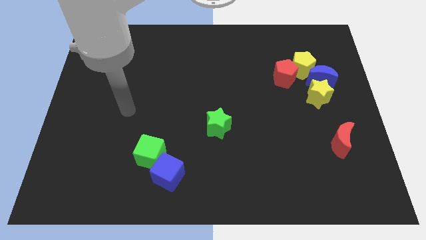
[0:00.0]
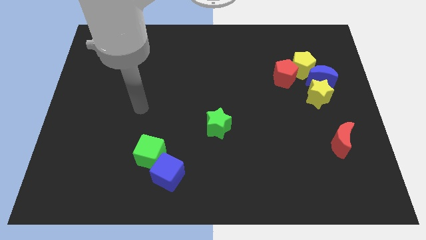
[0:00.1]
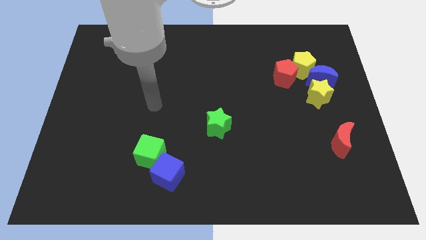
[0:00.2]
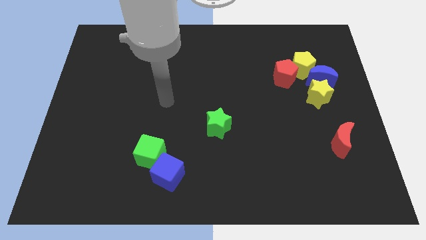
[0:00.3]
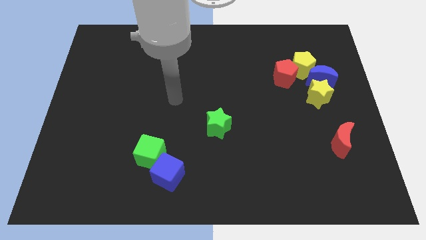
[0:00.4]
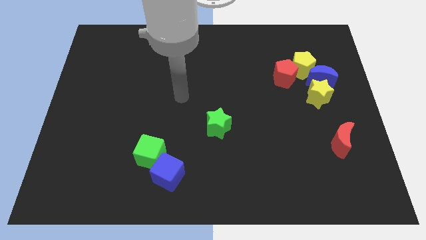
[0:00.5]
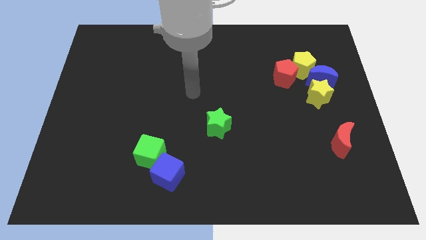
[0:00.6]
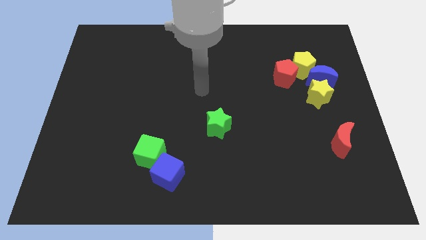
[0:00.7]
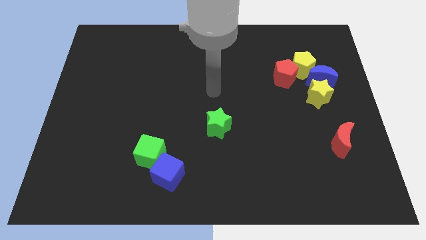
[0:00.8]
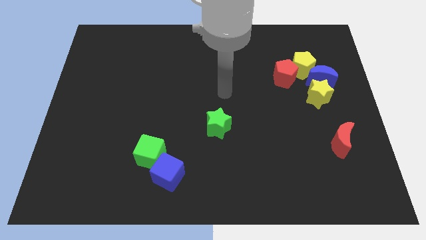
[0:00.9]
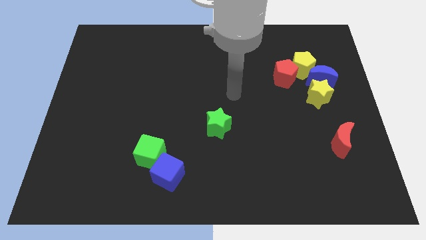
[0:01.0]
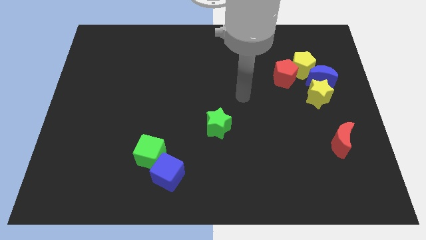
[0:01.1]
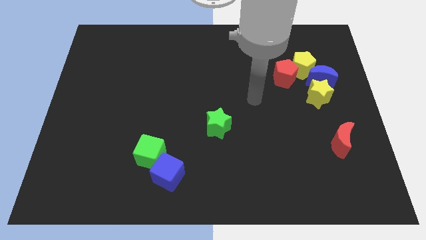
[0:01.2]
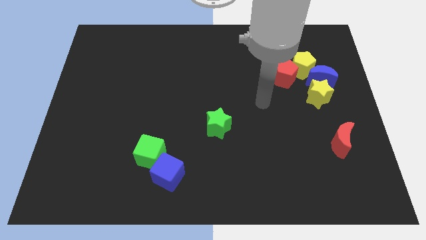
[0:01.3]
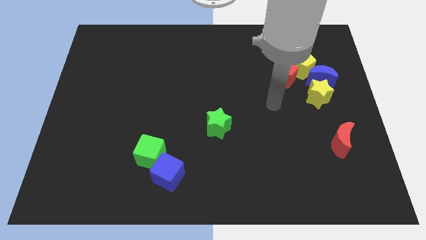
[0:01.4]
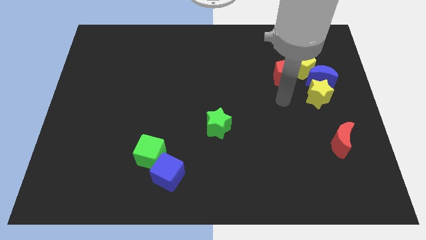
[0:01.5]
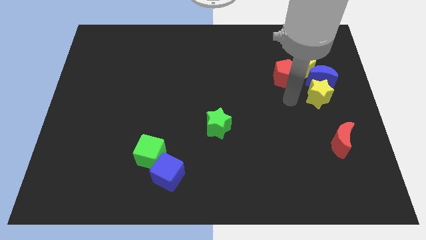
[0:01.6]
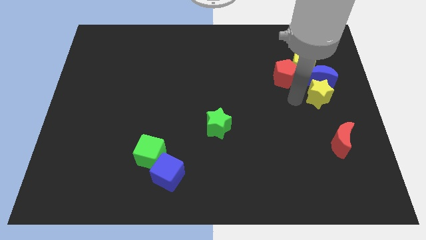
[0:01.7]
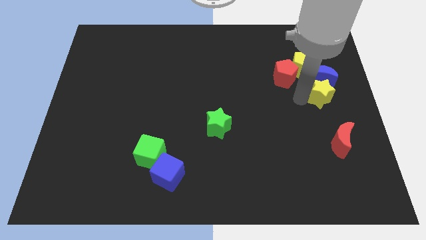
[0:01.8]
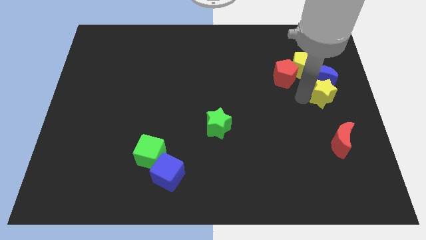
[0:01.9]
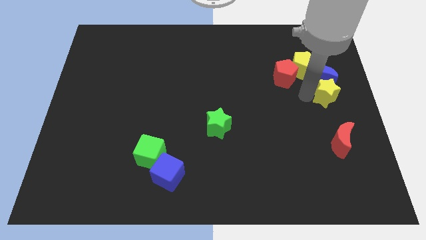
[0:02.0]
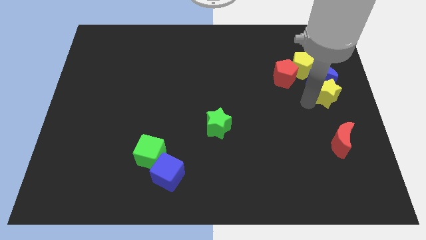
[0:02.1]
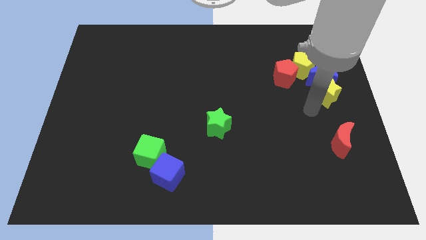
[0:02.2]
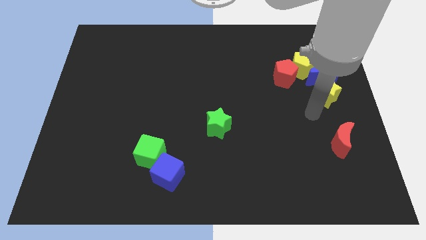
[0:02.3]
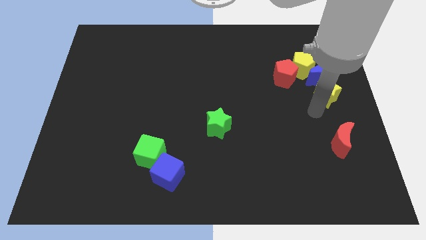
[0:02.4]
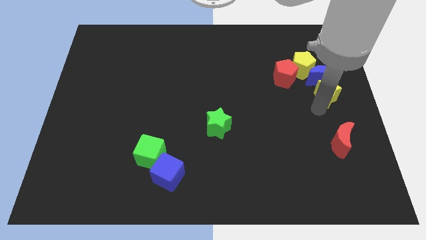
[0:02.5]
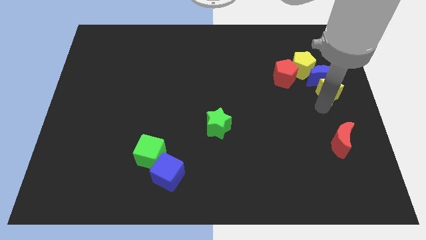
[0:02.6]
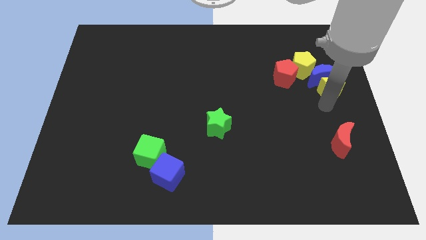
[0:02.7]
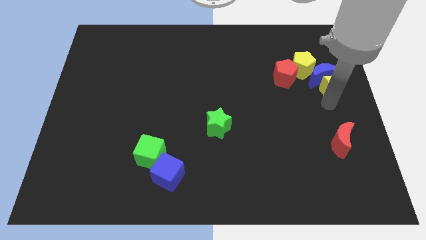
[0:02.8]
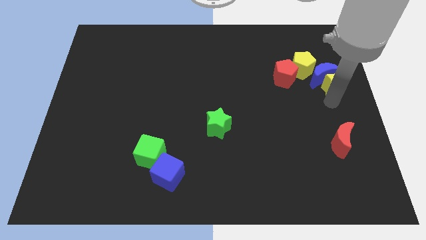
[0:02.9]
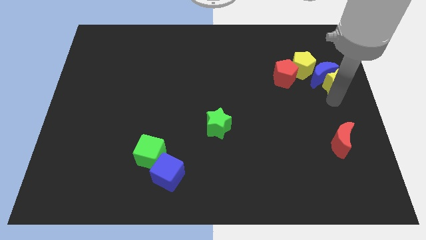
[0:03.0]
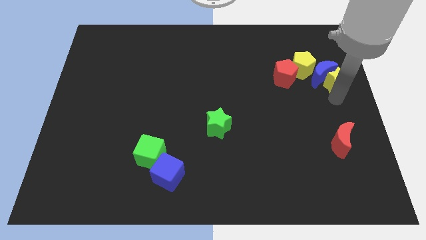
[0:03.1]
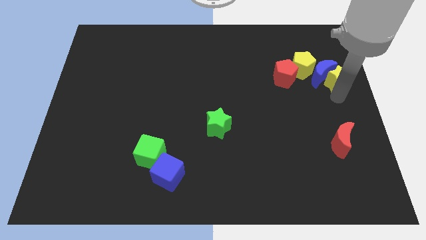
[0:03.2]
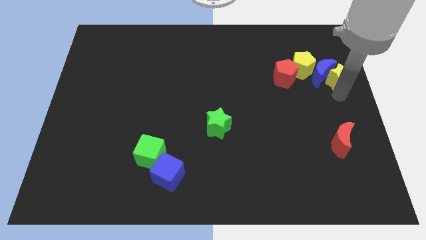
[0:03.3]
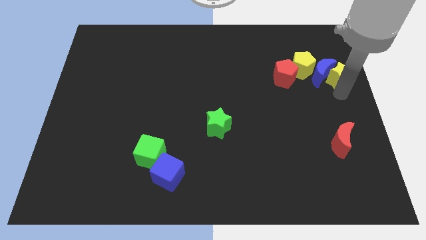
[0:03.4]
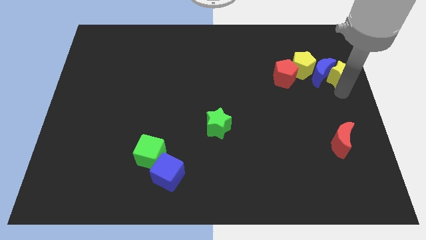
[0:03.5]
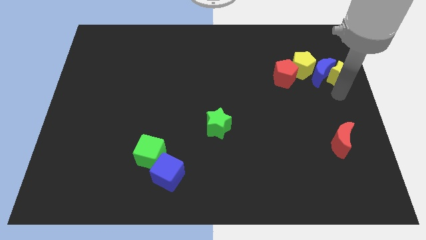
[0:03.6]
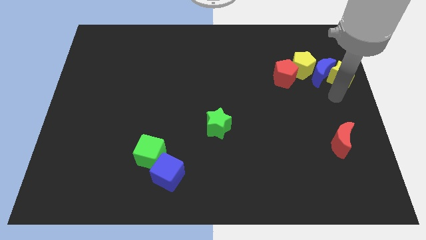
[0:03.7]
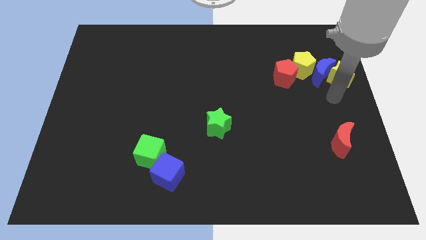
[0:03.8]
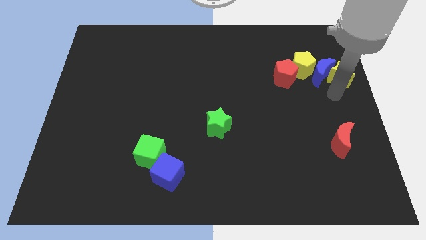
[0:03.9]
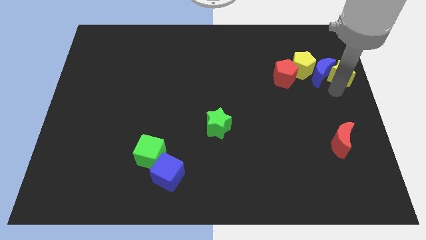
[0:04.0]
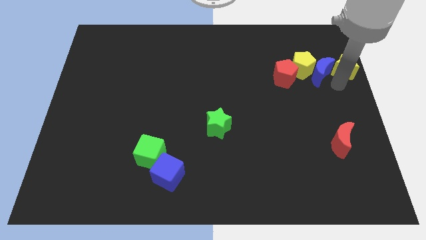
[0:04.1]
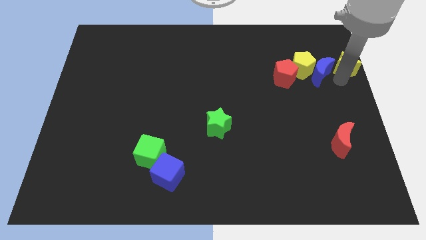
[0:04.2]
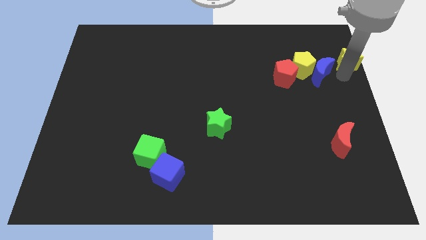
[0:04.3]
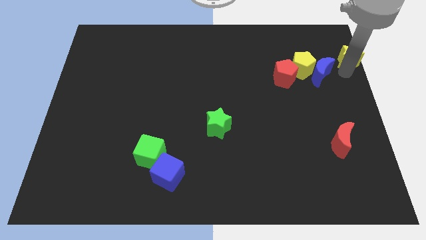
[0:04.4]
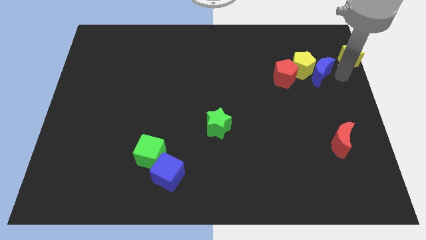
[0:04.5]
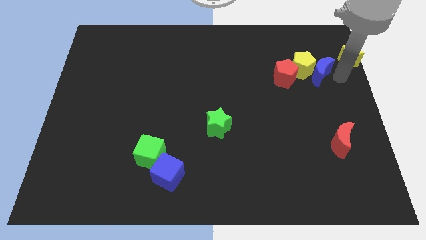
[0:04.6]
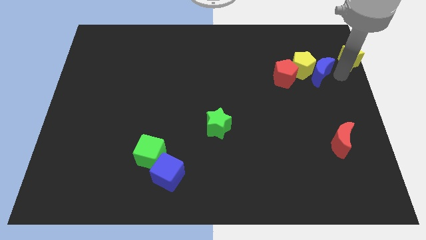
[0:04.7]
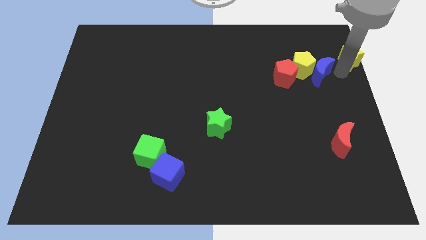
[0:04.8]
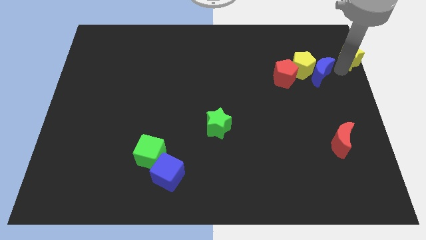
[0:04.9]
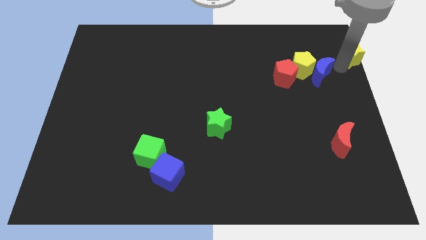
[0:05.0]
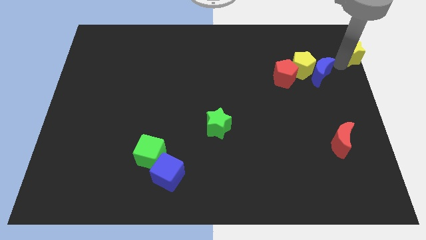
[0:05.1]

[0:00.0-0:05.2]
put the yellow star to the top right

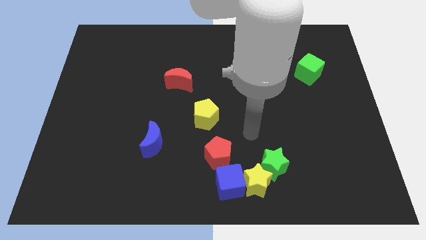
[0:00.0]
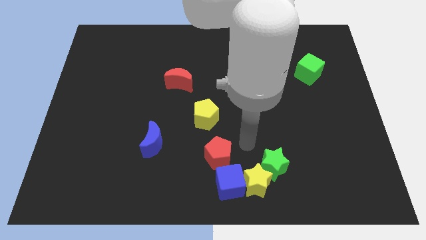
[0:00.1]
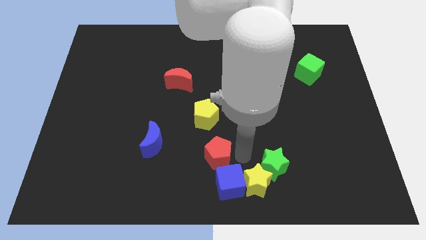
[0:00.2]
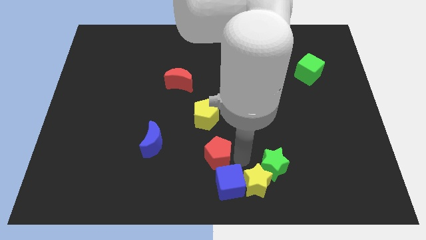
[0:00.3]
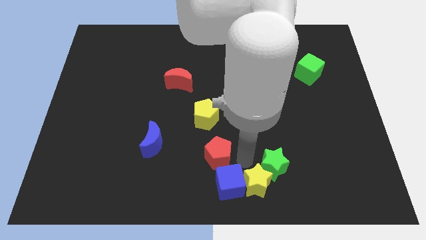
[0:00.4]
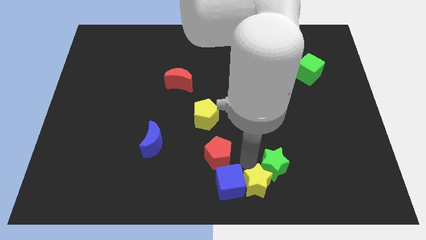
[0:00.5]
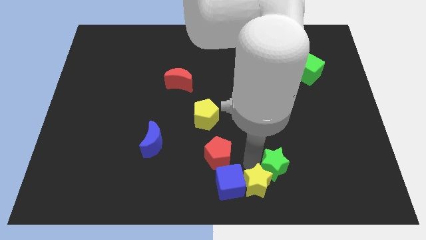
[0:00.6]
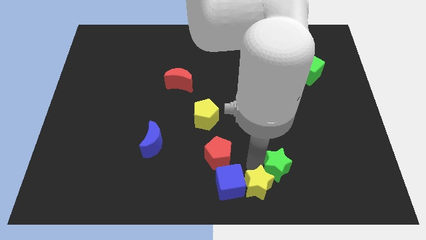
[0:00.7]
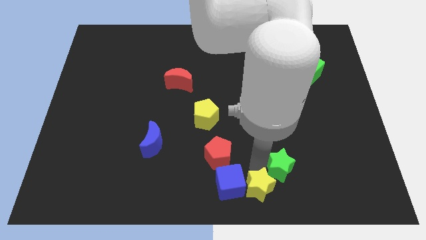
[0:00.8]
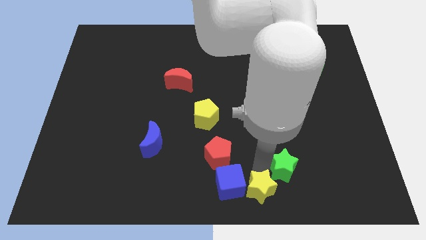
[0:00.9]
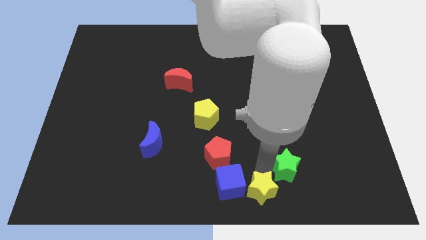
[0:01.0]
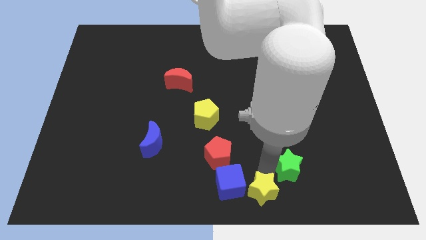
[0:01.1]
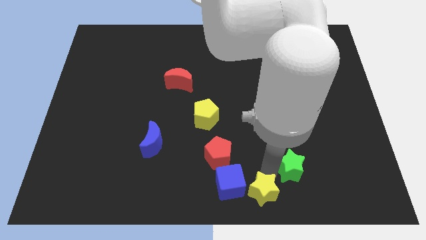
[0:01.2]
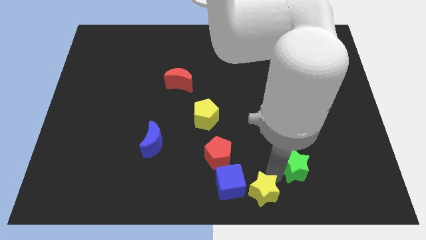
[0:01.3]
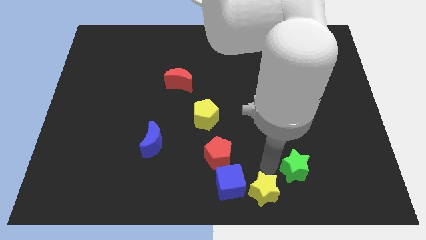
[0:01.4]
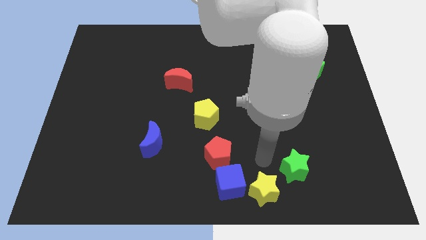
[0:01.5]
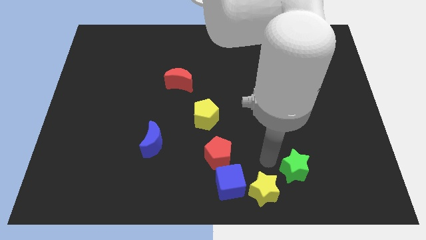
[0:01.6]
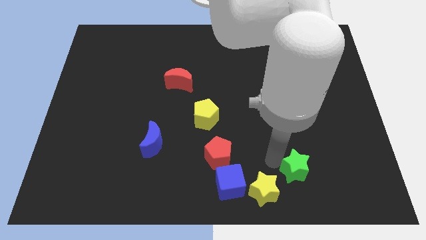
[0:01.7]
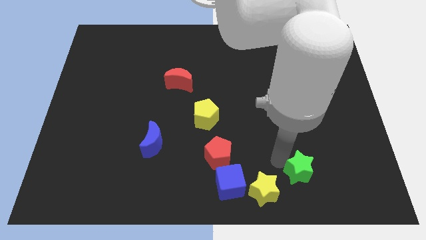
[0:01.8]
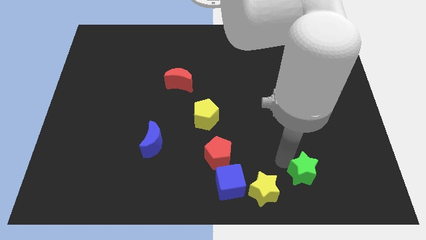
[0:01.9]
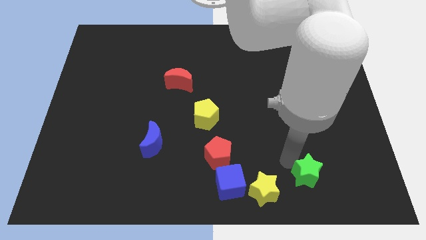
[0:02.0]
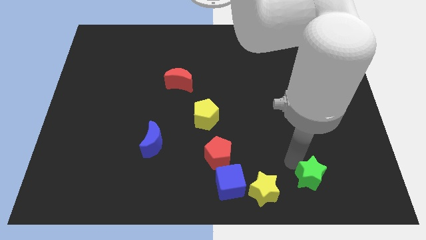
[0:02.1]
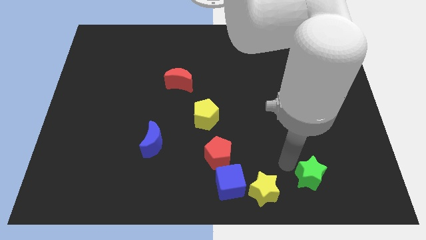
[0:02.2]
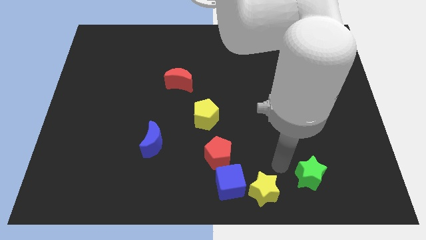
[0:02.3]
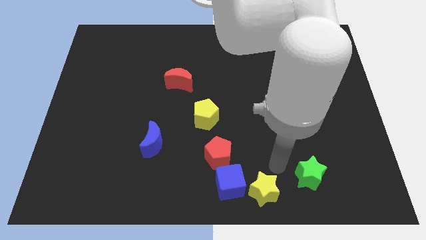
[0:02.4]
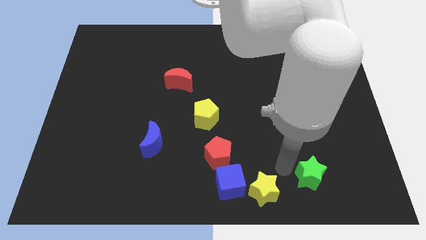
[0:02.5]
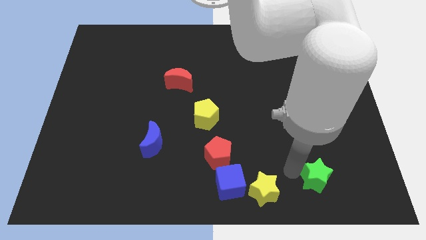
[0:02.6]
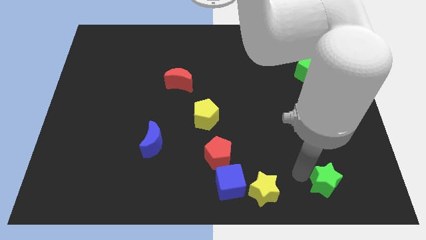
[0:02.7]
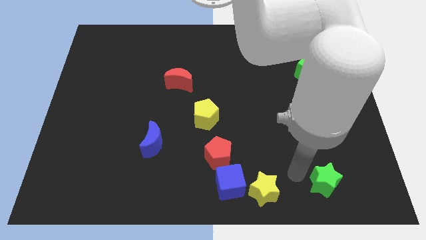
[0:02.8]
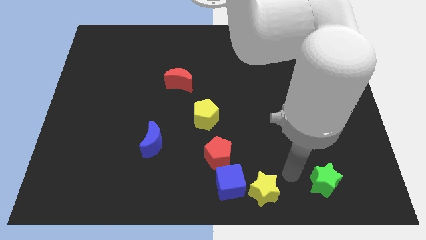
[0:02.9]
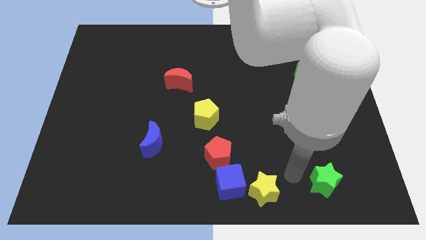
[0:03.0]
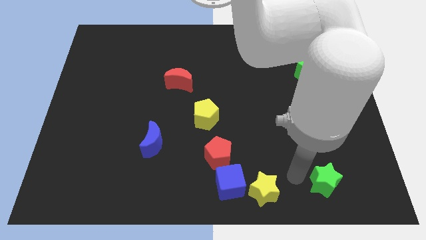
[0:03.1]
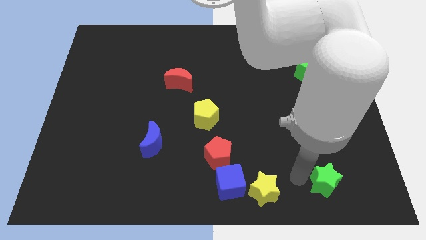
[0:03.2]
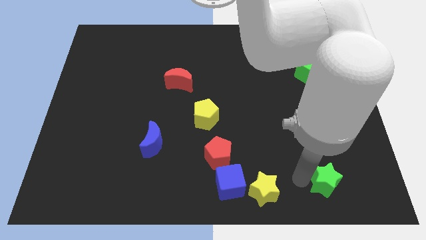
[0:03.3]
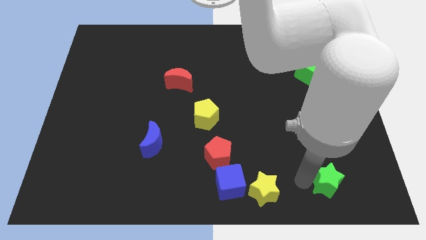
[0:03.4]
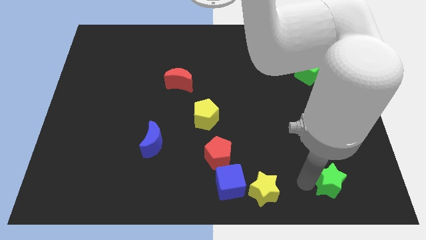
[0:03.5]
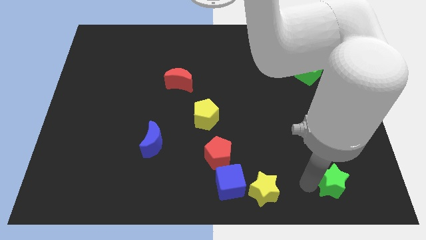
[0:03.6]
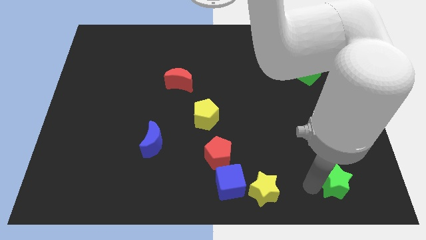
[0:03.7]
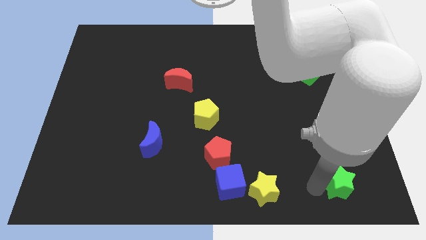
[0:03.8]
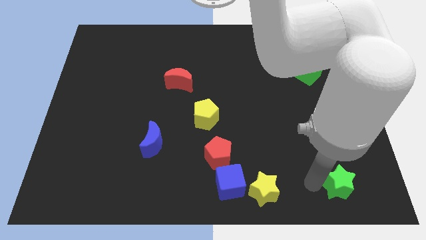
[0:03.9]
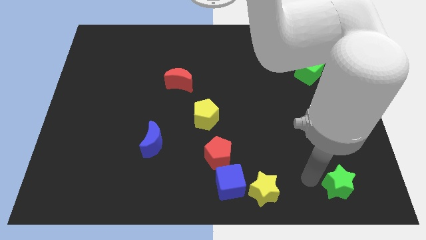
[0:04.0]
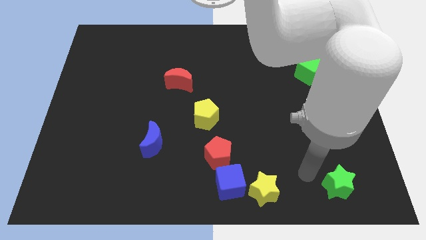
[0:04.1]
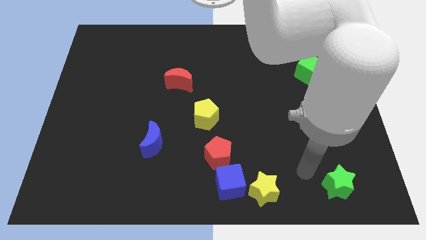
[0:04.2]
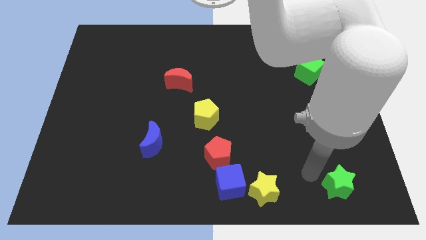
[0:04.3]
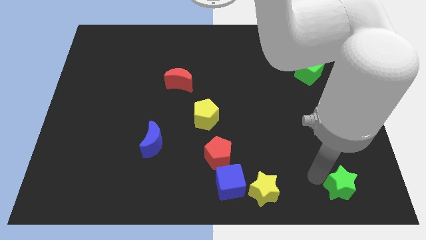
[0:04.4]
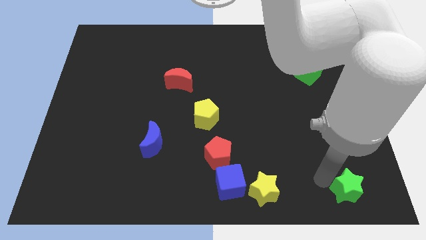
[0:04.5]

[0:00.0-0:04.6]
slide the green star to the lower right corner
